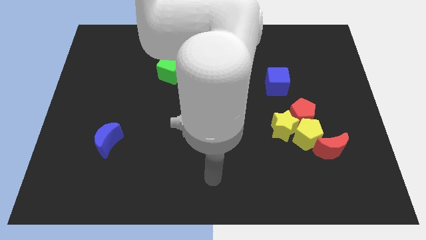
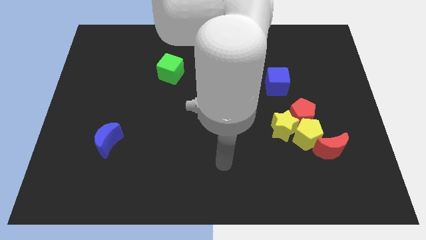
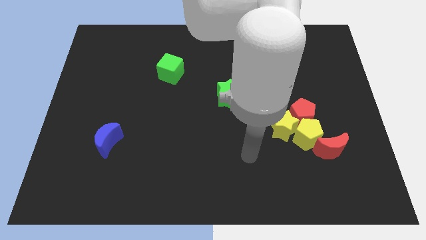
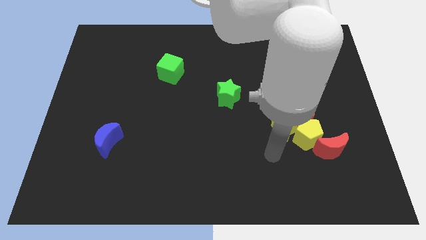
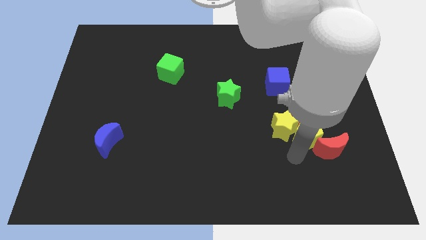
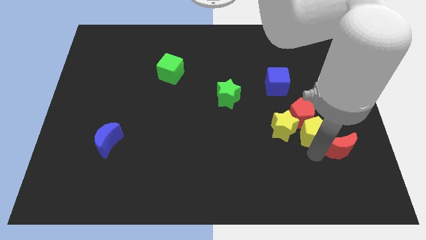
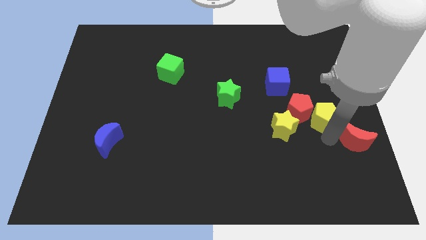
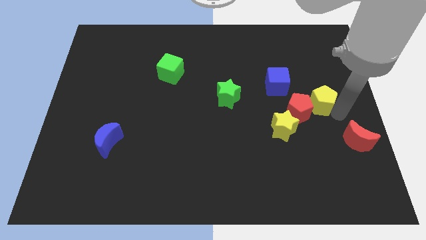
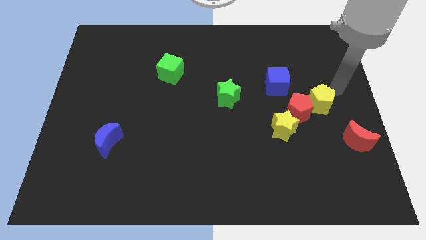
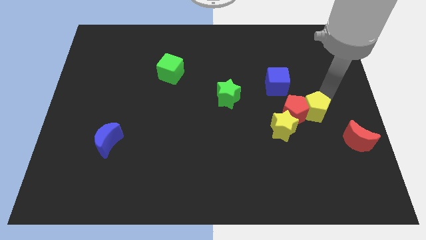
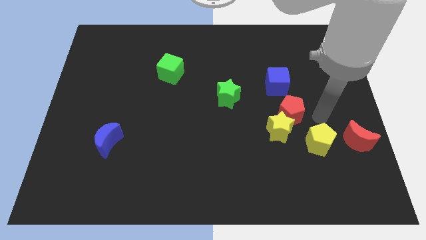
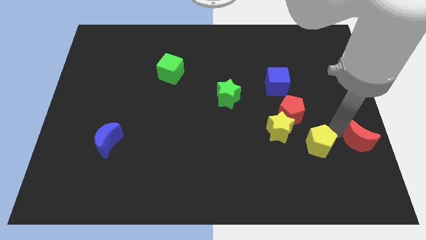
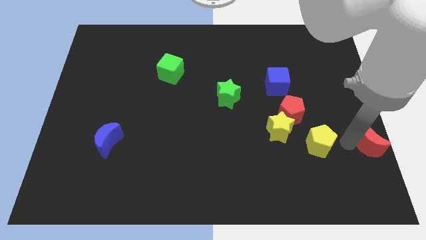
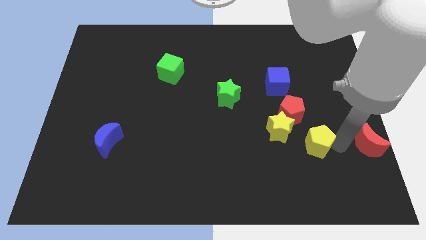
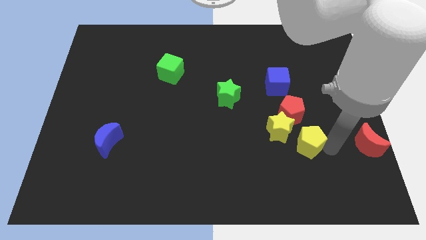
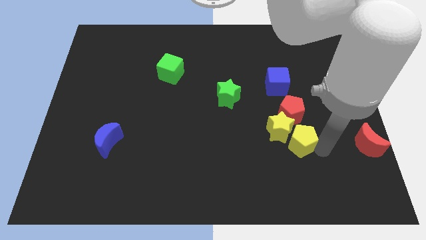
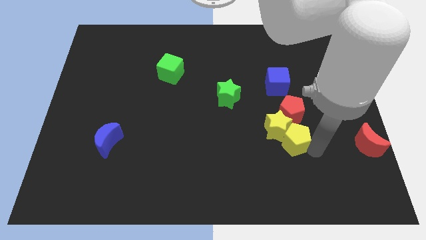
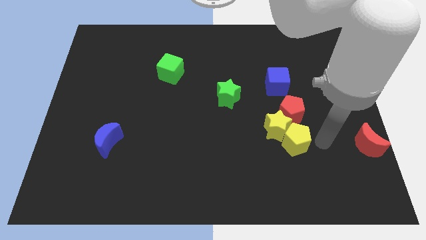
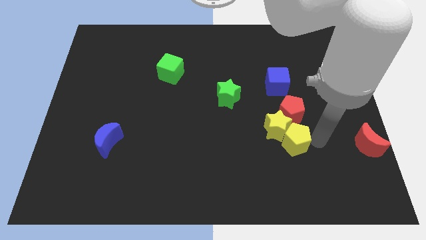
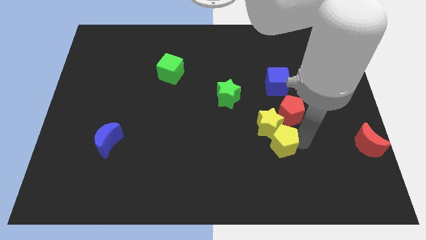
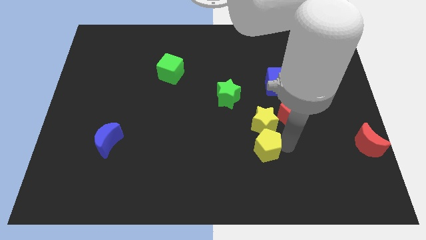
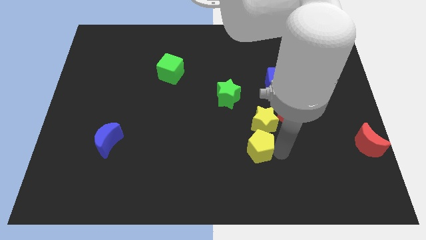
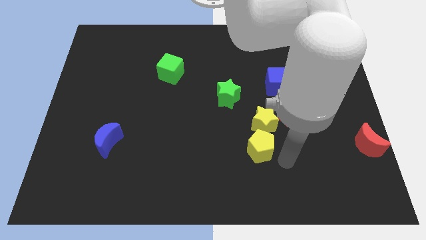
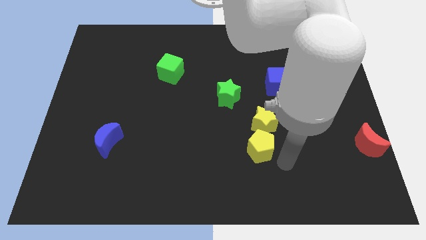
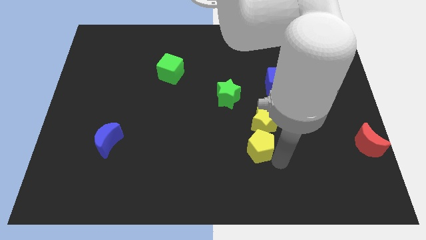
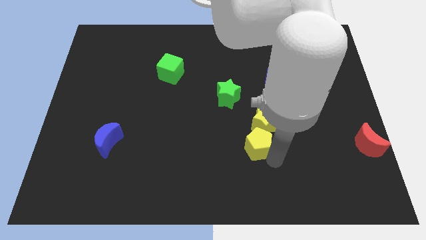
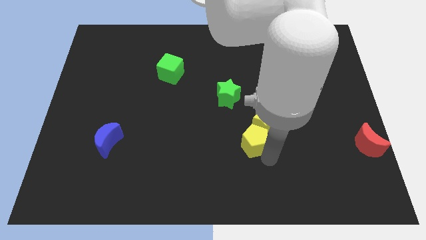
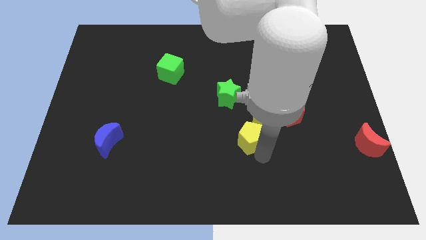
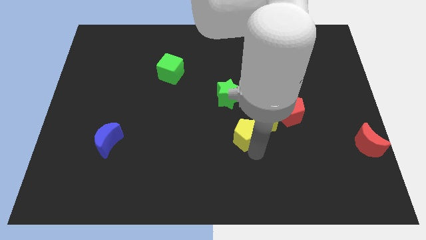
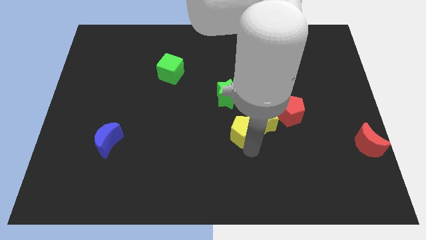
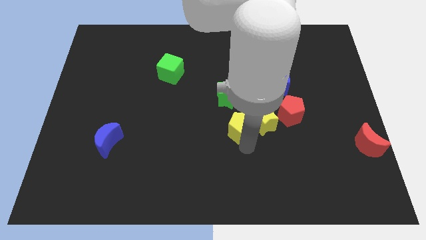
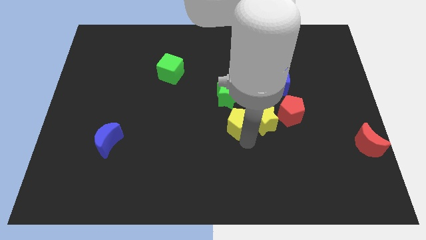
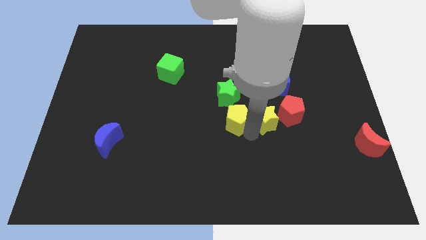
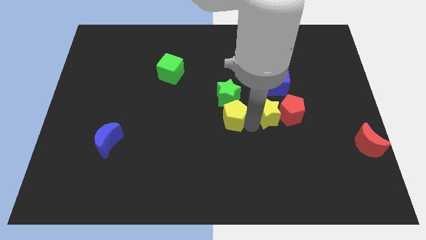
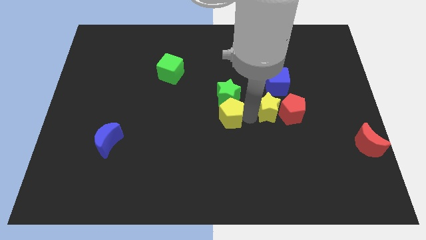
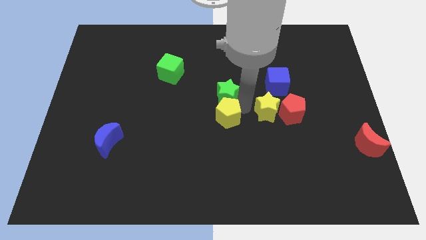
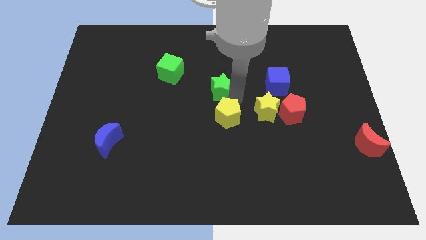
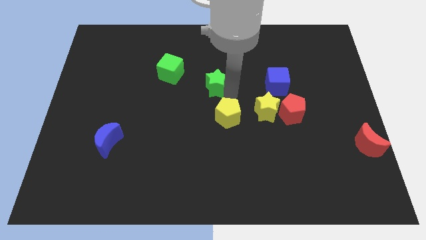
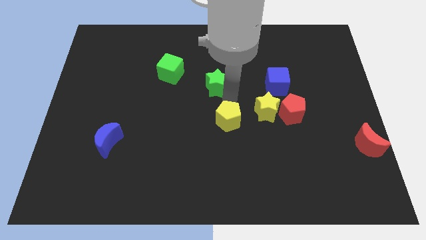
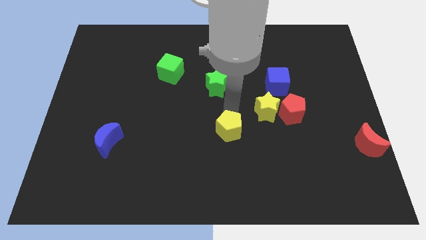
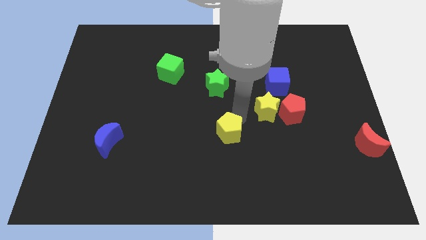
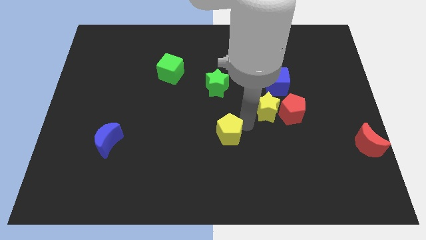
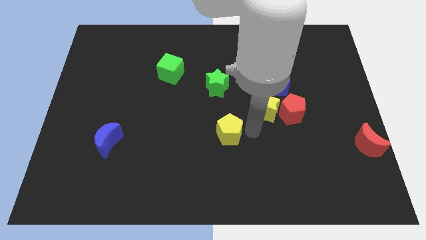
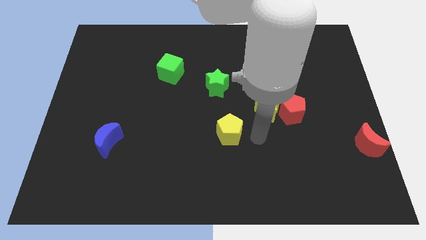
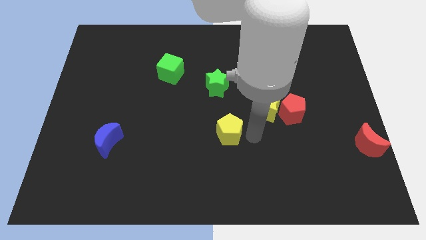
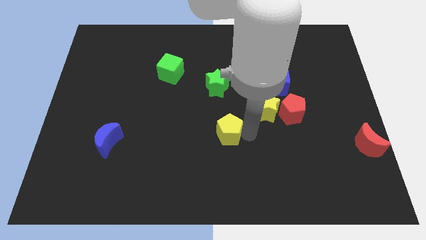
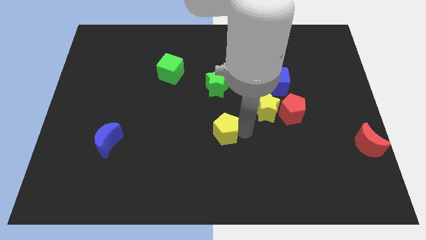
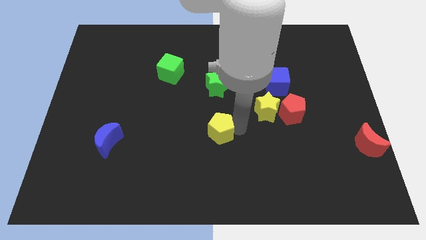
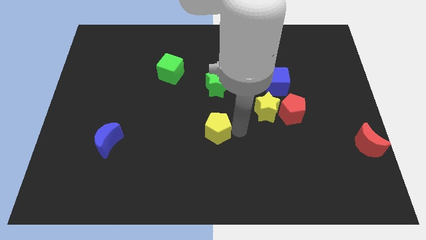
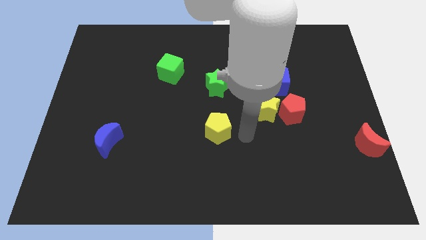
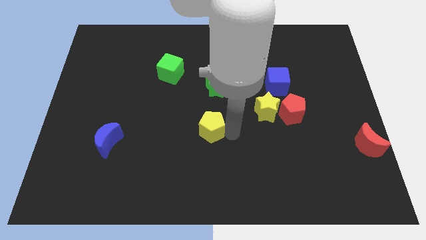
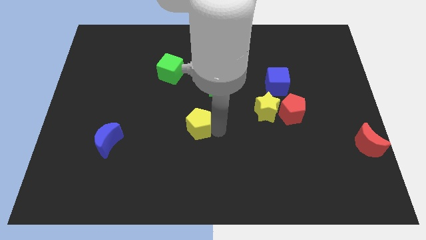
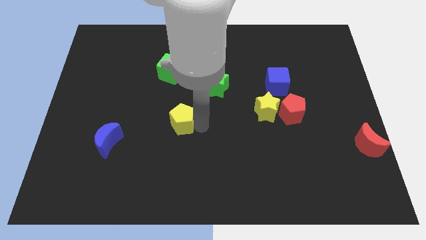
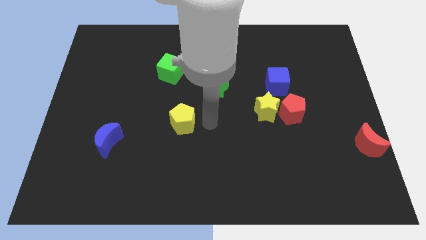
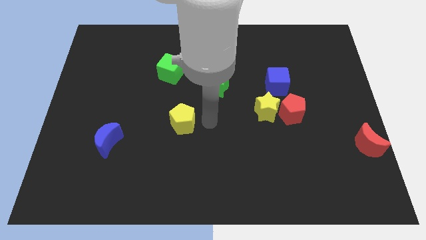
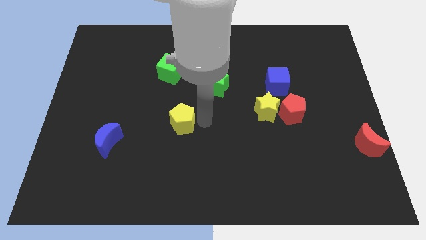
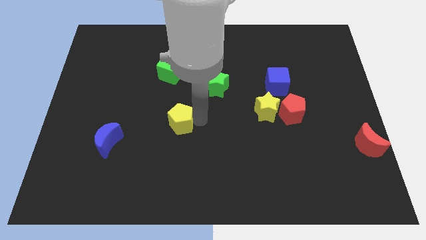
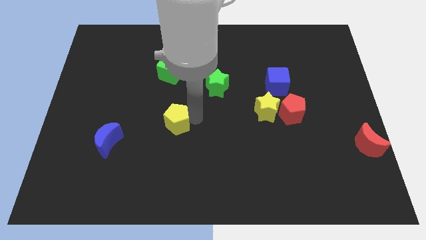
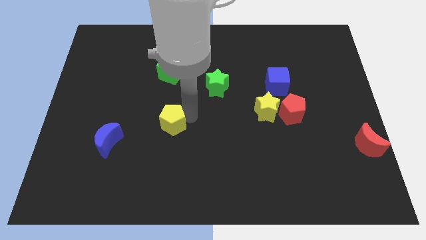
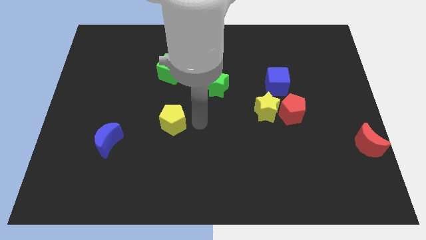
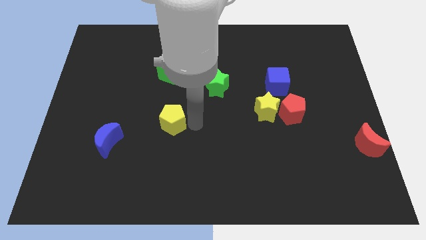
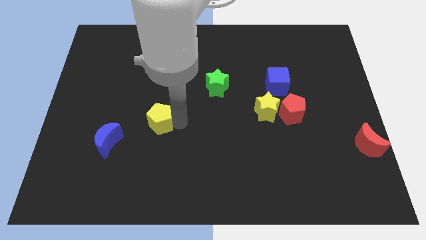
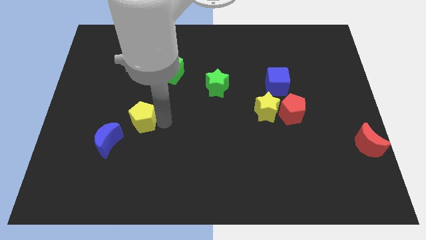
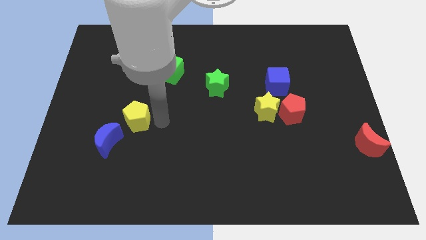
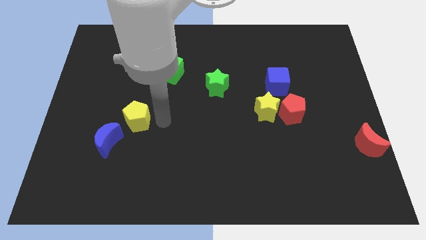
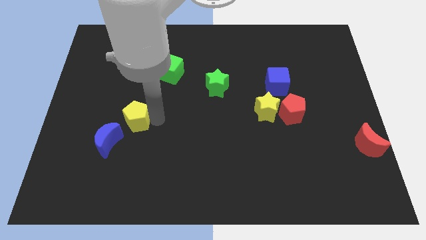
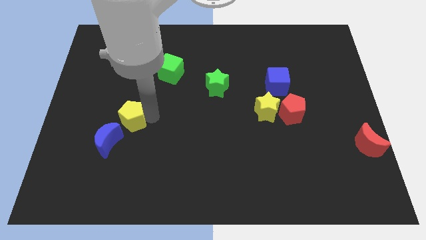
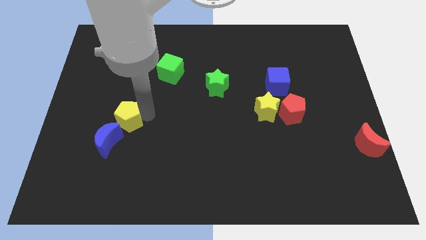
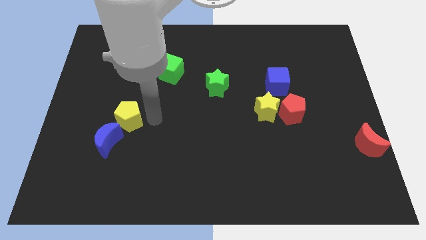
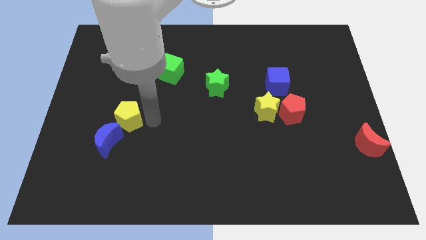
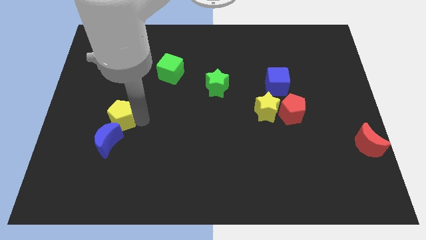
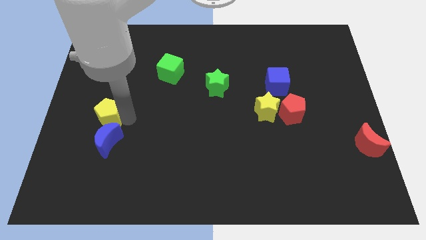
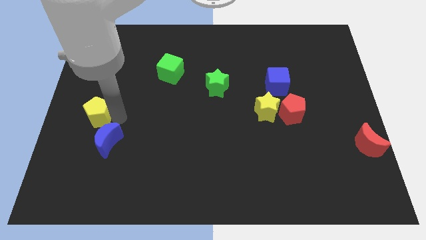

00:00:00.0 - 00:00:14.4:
push the yellow pentagon to the center left
